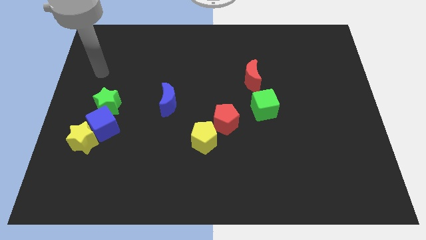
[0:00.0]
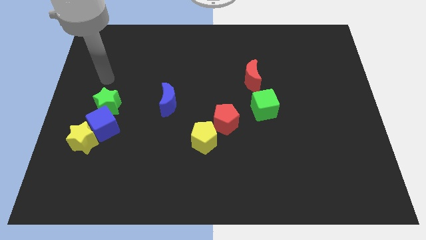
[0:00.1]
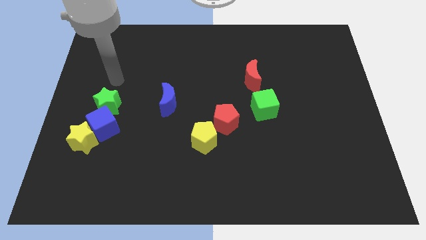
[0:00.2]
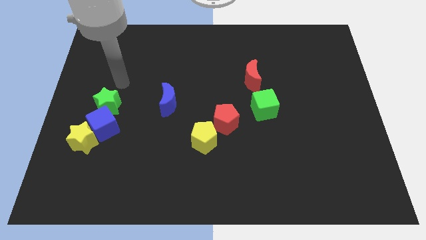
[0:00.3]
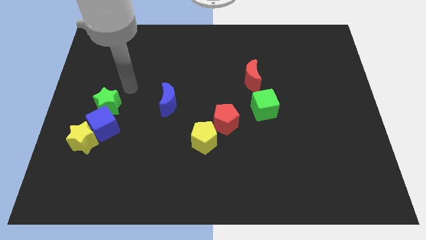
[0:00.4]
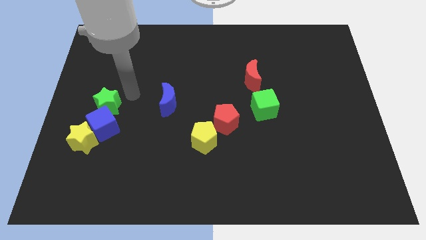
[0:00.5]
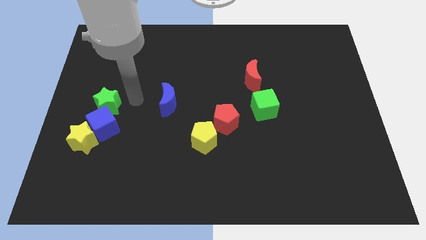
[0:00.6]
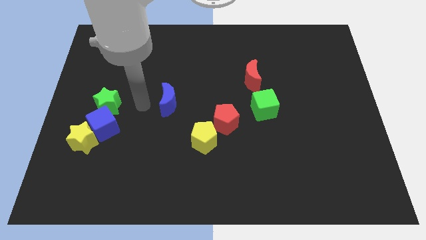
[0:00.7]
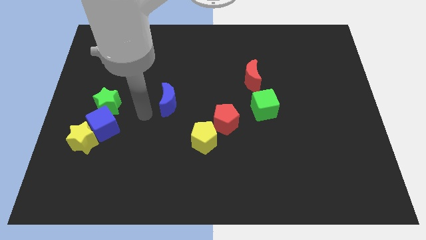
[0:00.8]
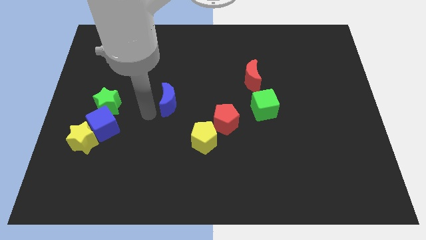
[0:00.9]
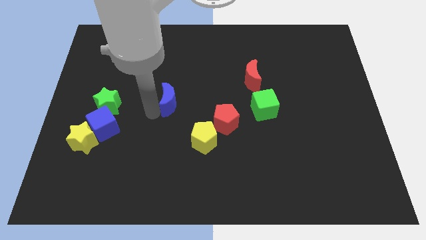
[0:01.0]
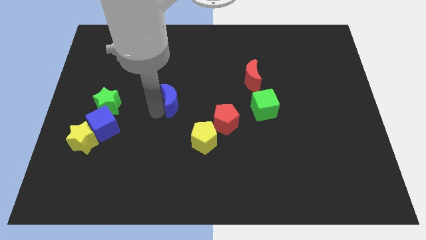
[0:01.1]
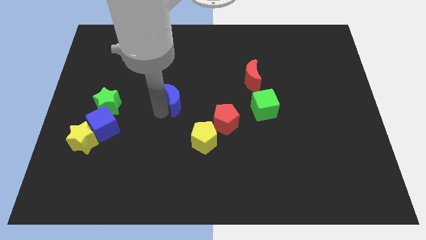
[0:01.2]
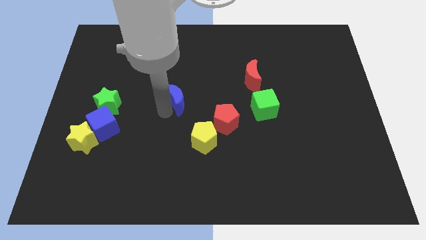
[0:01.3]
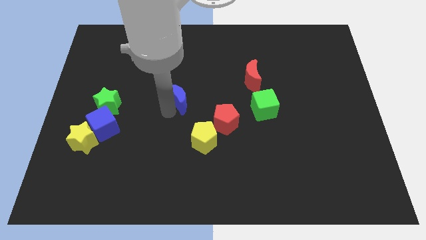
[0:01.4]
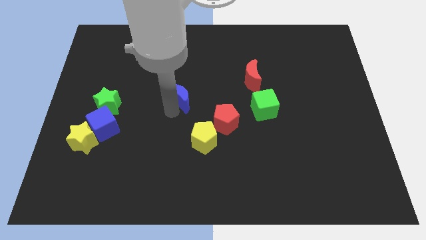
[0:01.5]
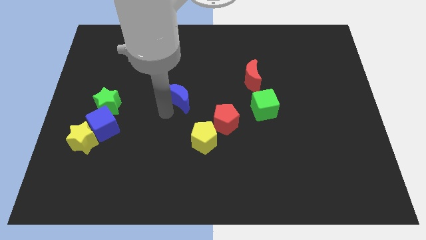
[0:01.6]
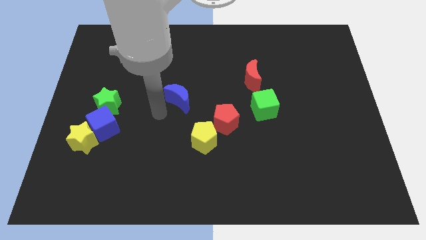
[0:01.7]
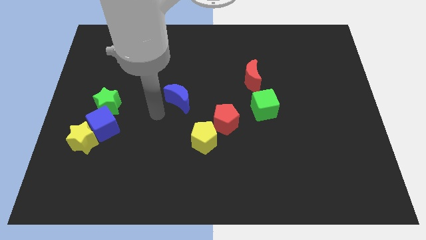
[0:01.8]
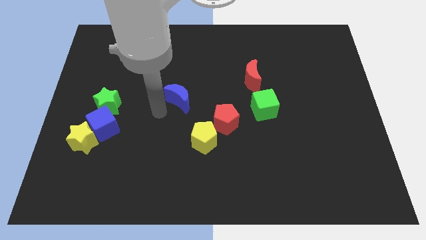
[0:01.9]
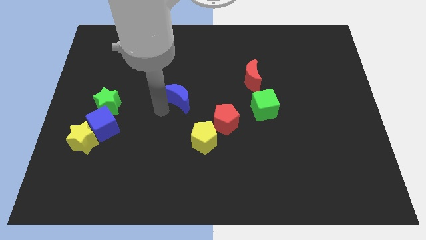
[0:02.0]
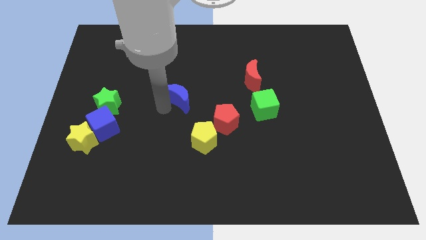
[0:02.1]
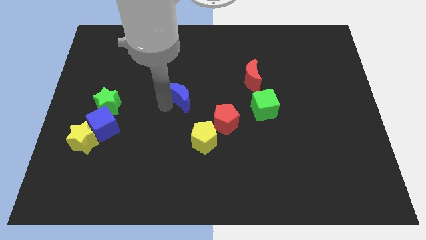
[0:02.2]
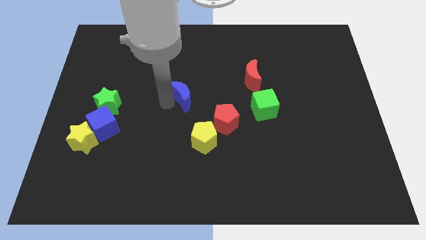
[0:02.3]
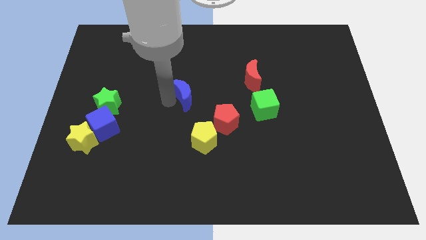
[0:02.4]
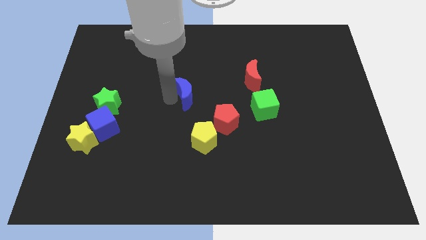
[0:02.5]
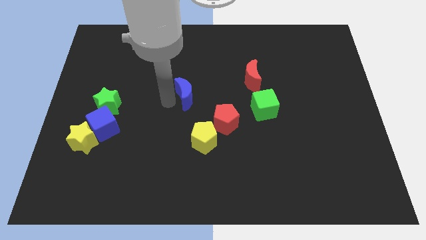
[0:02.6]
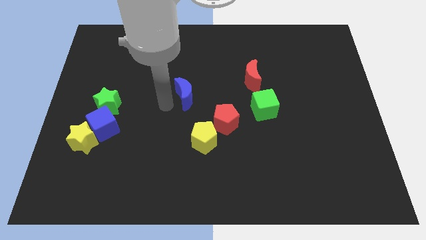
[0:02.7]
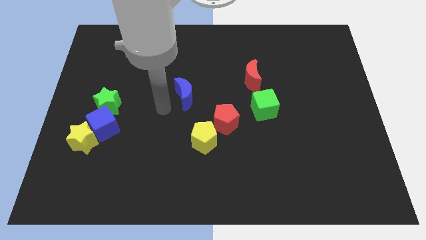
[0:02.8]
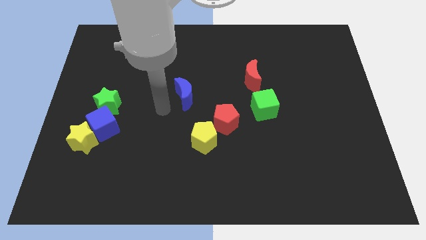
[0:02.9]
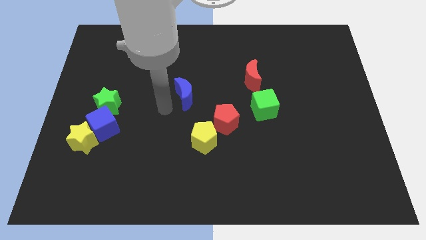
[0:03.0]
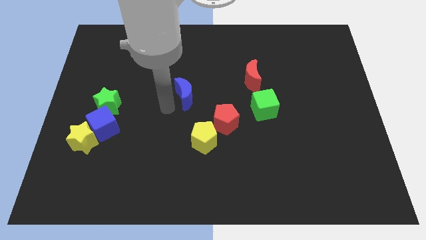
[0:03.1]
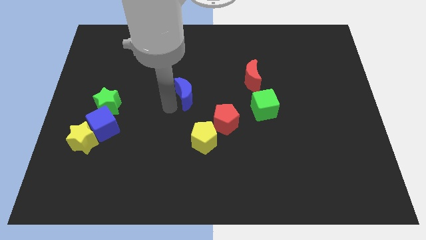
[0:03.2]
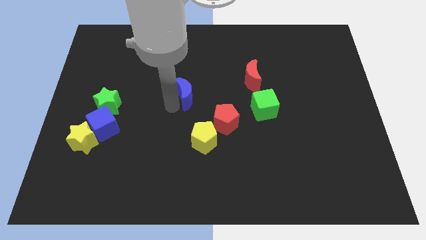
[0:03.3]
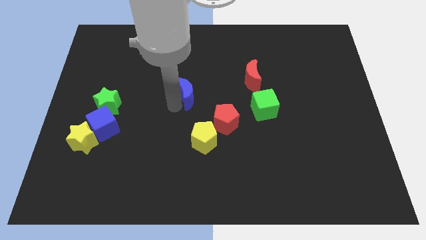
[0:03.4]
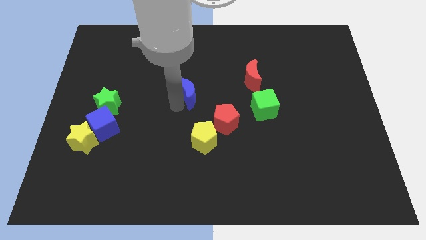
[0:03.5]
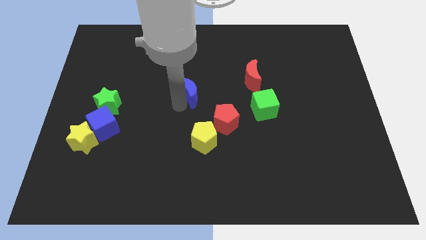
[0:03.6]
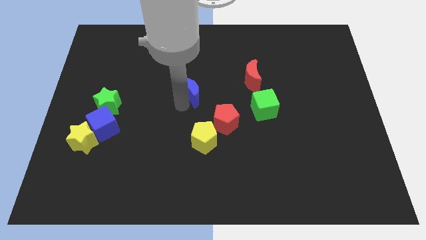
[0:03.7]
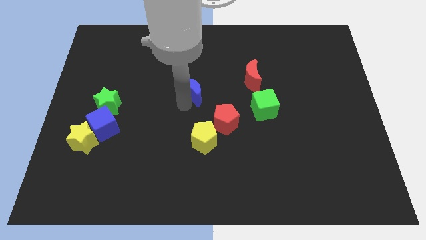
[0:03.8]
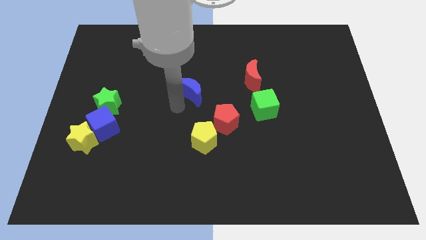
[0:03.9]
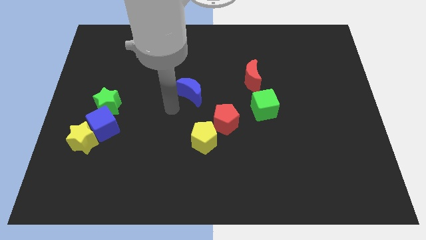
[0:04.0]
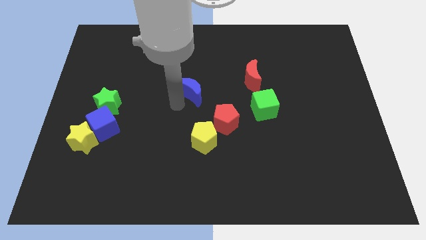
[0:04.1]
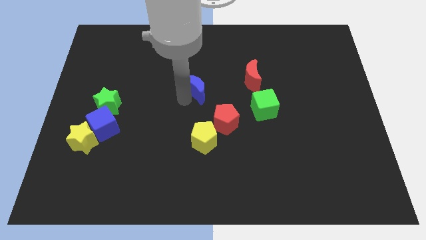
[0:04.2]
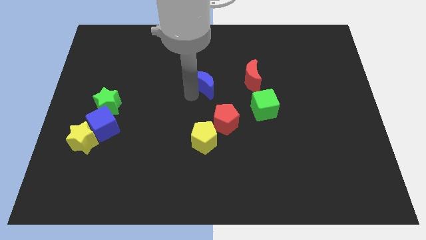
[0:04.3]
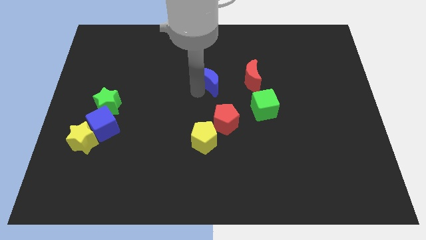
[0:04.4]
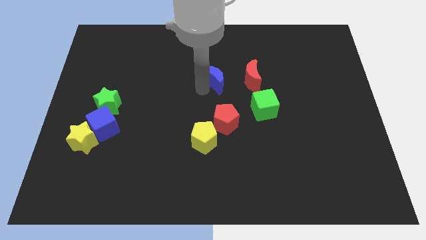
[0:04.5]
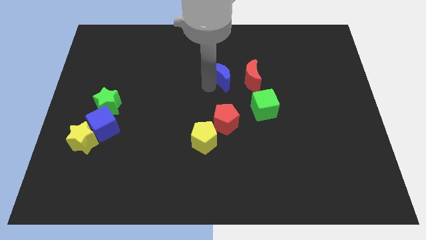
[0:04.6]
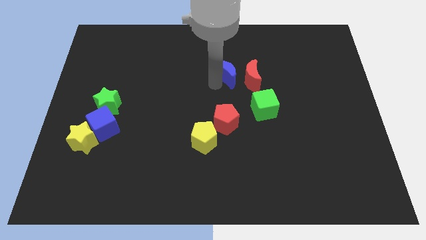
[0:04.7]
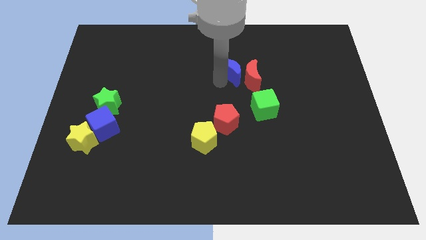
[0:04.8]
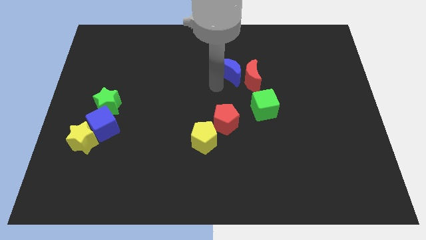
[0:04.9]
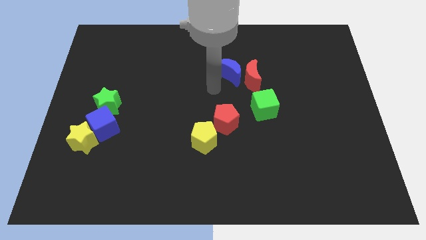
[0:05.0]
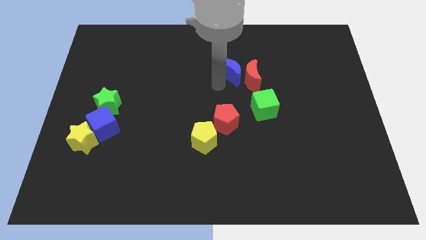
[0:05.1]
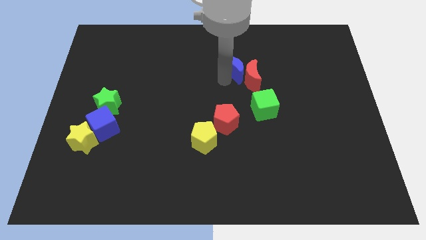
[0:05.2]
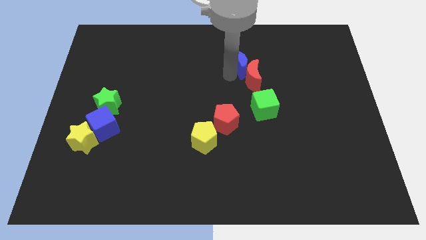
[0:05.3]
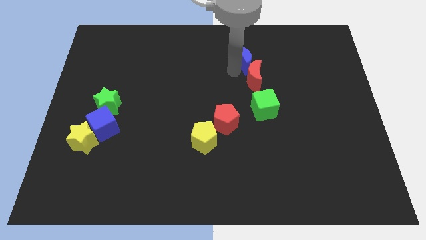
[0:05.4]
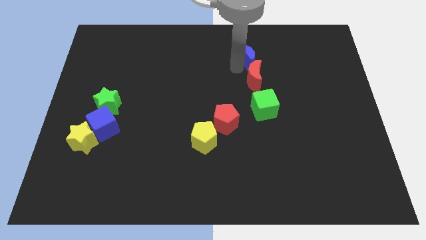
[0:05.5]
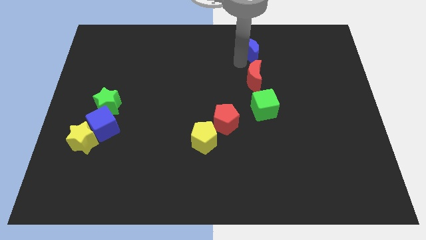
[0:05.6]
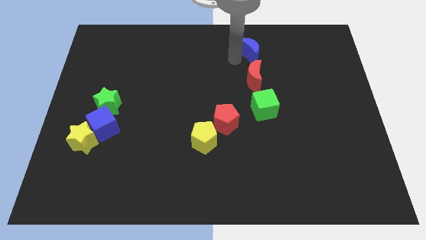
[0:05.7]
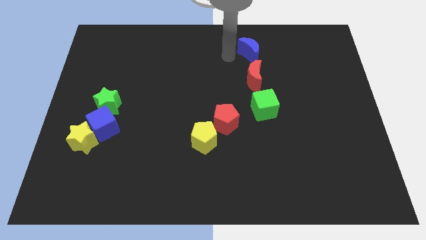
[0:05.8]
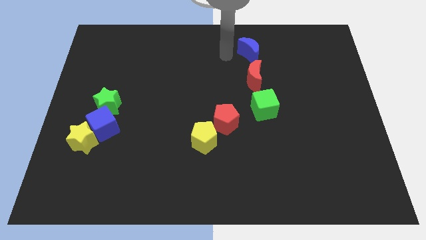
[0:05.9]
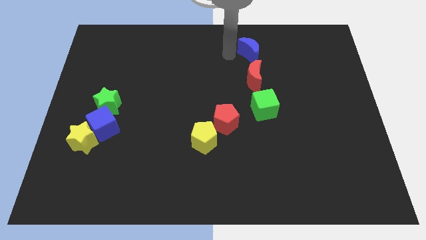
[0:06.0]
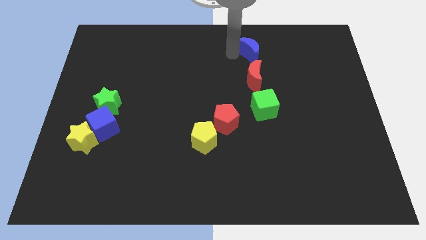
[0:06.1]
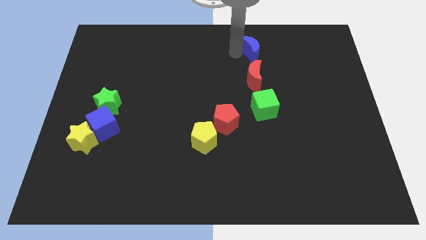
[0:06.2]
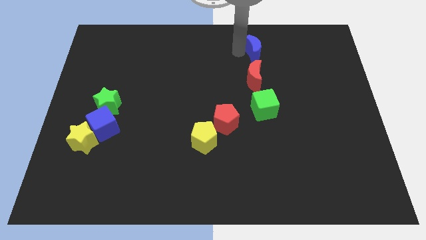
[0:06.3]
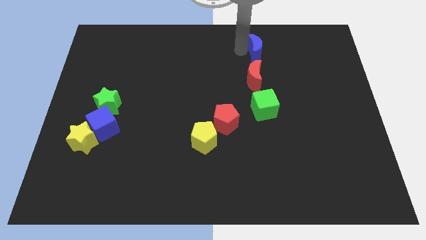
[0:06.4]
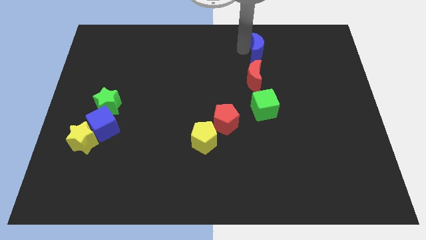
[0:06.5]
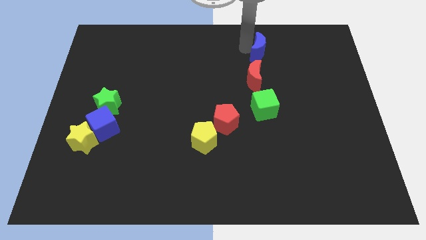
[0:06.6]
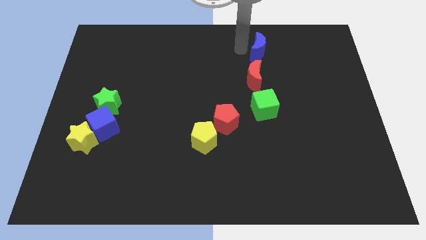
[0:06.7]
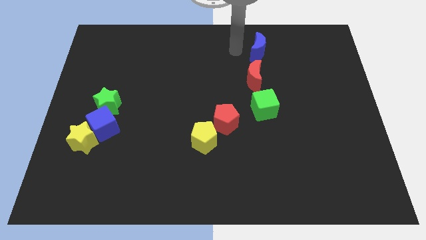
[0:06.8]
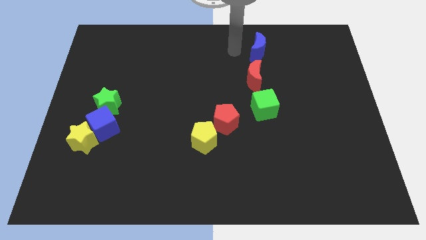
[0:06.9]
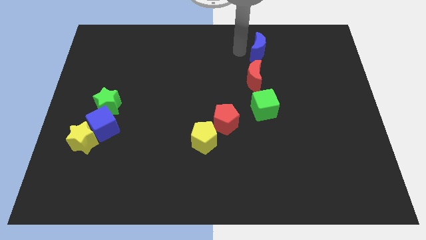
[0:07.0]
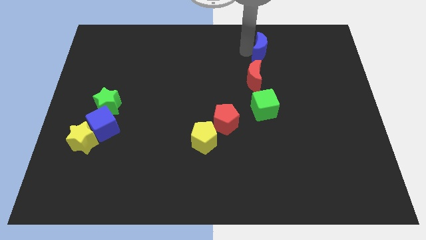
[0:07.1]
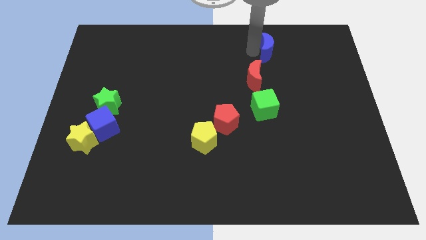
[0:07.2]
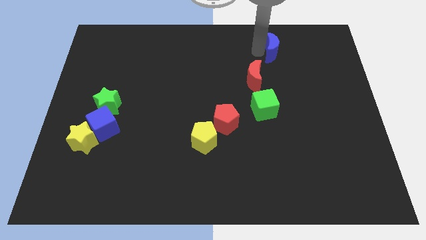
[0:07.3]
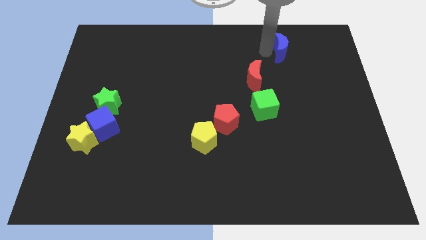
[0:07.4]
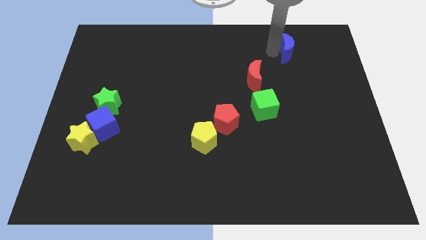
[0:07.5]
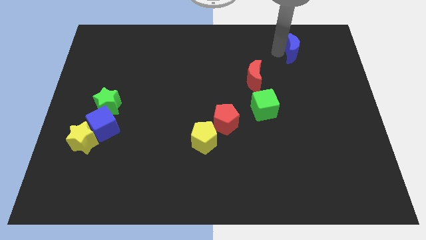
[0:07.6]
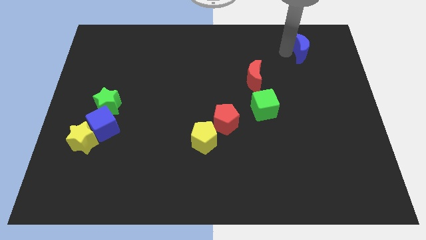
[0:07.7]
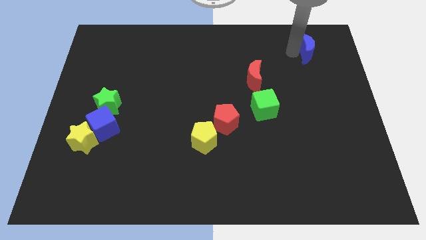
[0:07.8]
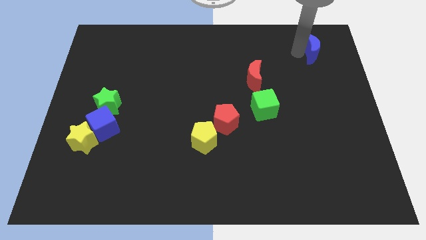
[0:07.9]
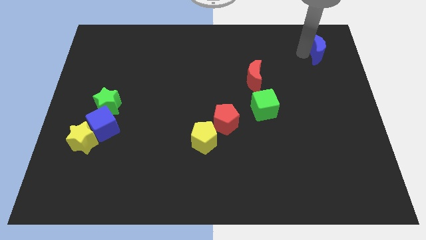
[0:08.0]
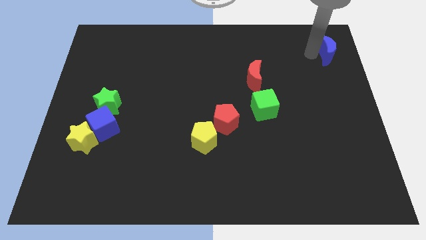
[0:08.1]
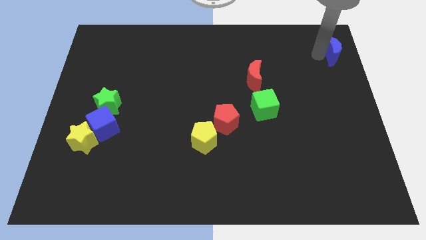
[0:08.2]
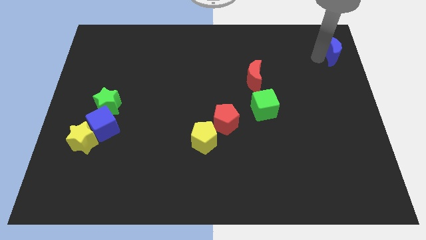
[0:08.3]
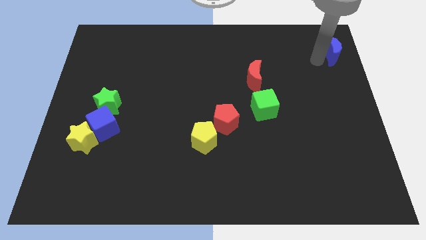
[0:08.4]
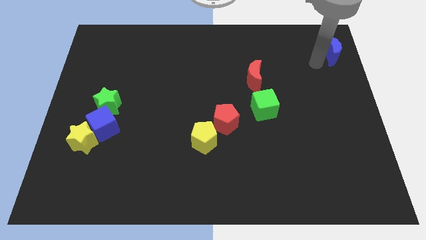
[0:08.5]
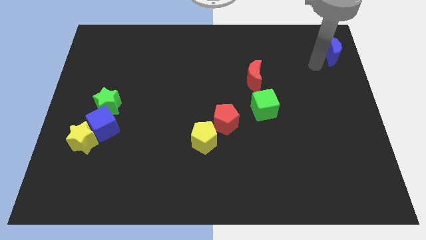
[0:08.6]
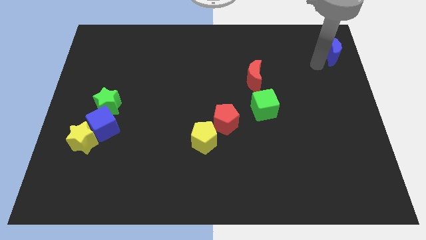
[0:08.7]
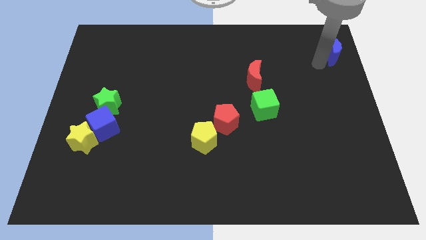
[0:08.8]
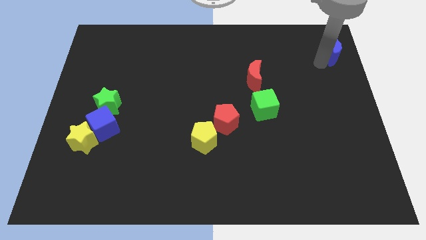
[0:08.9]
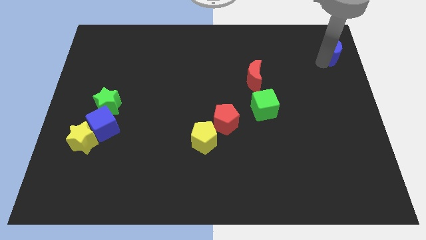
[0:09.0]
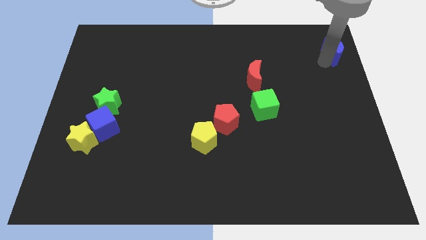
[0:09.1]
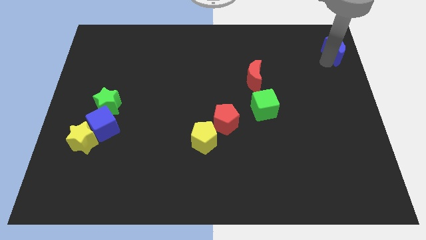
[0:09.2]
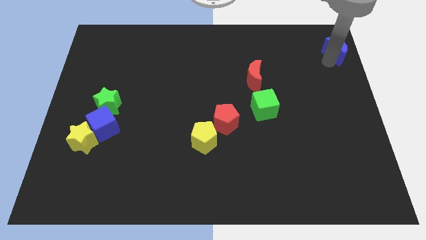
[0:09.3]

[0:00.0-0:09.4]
move the blue moon to the top right of the board
